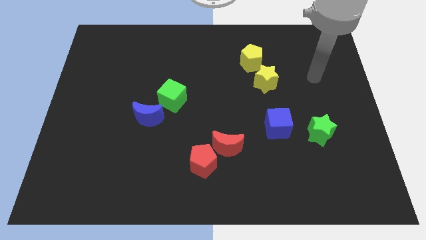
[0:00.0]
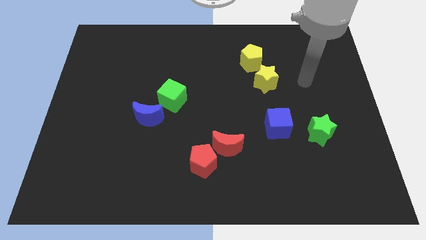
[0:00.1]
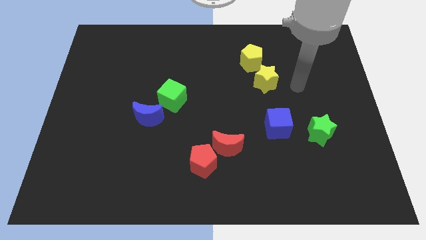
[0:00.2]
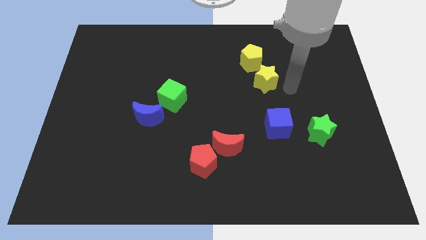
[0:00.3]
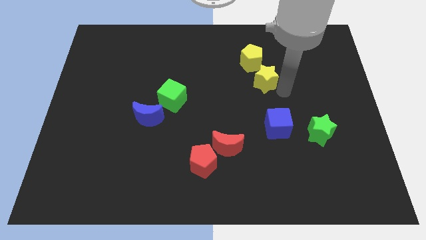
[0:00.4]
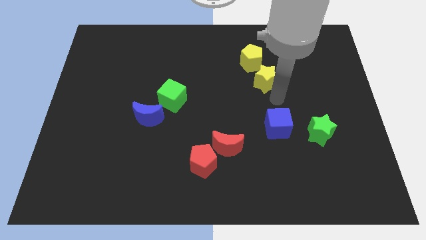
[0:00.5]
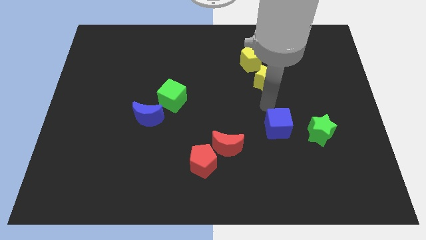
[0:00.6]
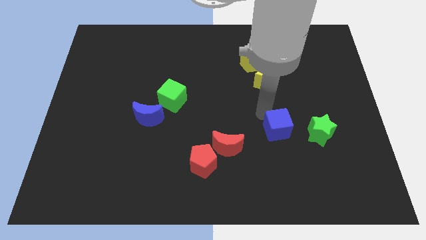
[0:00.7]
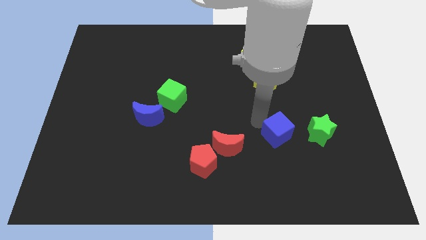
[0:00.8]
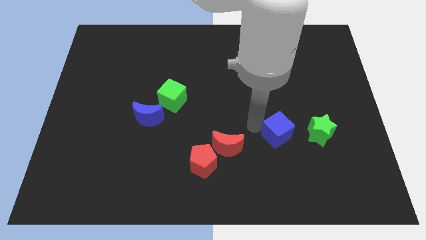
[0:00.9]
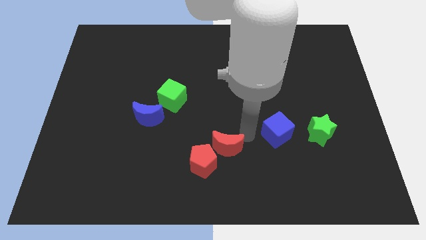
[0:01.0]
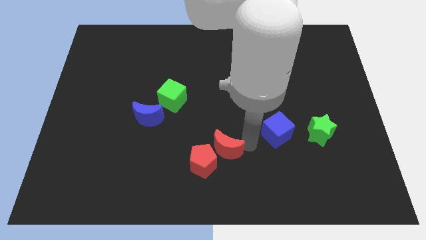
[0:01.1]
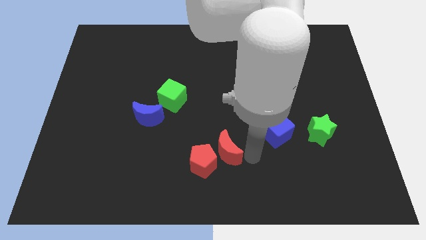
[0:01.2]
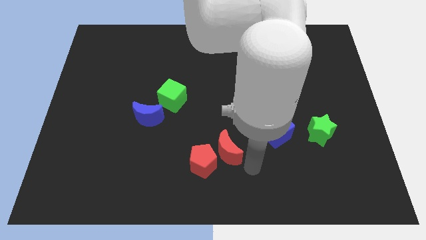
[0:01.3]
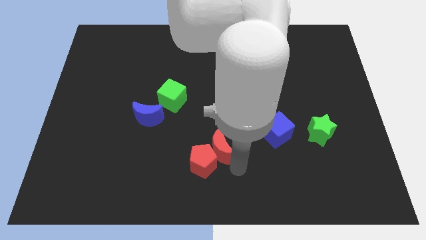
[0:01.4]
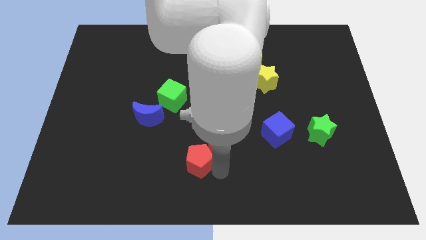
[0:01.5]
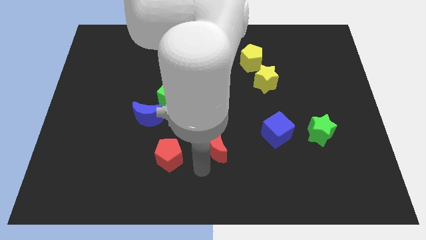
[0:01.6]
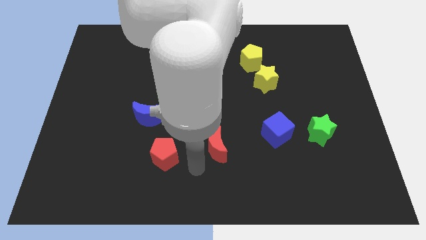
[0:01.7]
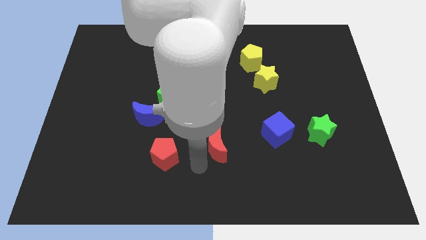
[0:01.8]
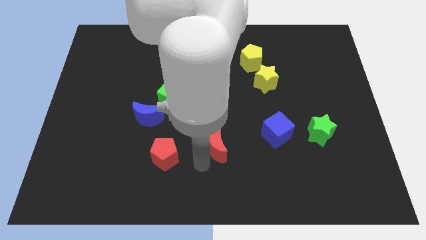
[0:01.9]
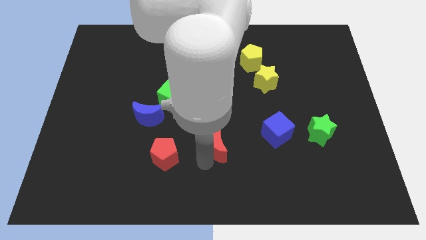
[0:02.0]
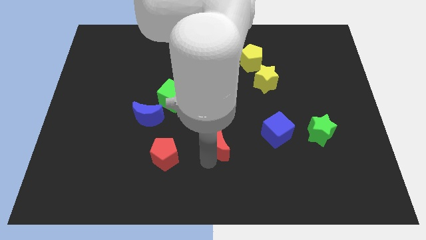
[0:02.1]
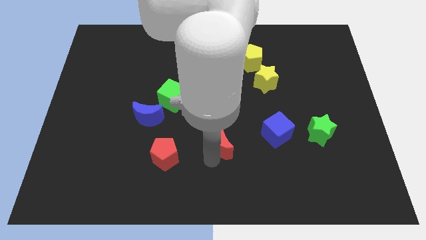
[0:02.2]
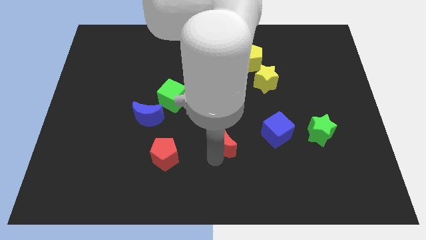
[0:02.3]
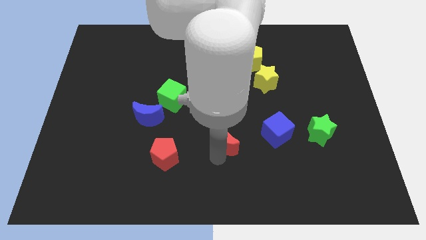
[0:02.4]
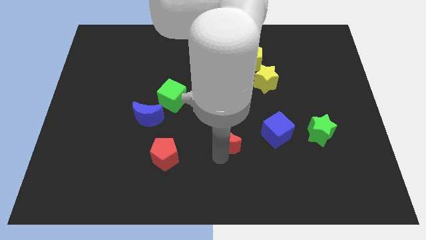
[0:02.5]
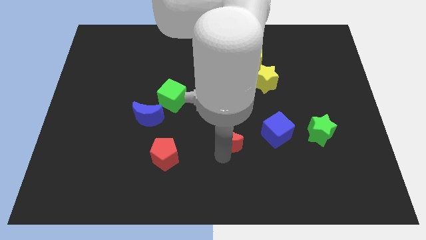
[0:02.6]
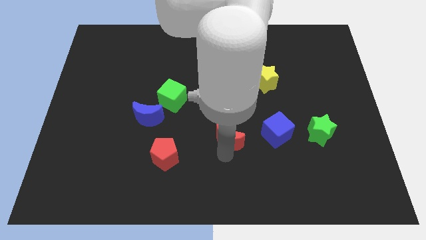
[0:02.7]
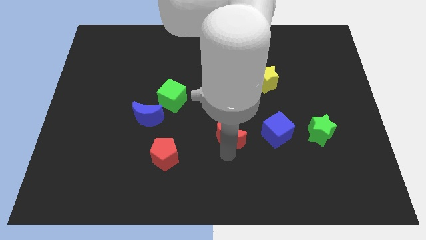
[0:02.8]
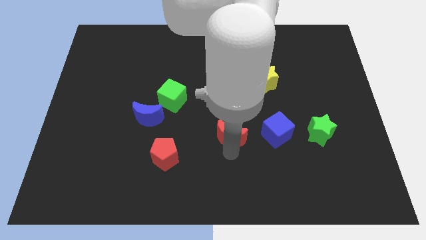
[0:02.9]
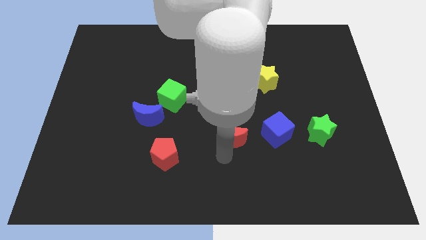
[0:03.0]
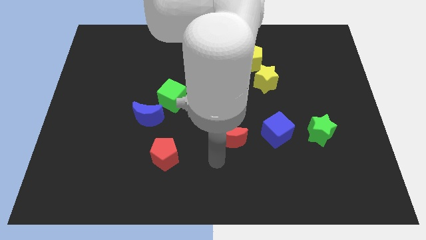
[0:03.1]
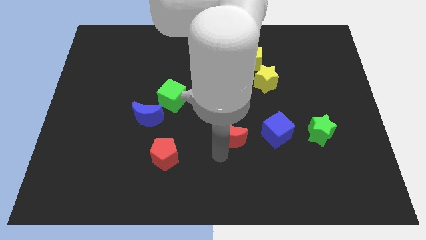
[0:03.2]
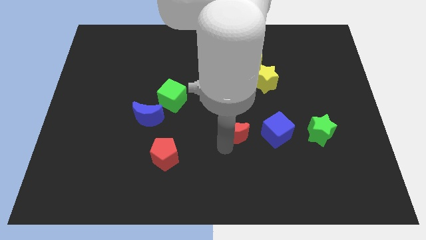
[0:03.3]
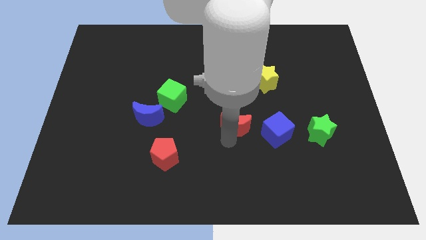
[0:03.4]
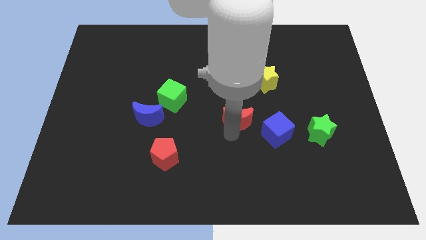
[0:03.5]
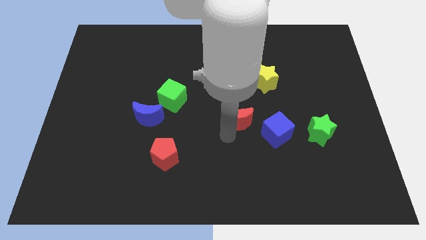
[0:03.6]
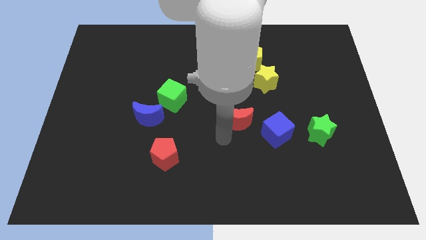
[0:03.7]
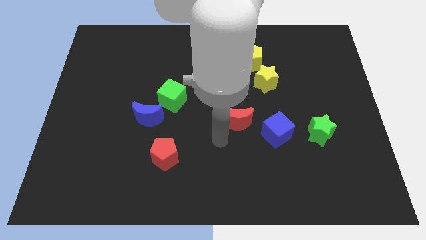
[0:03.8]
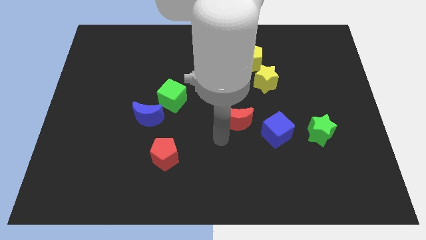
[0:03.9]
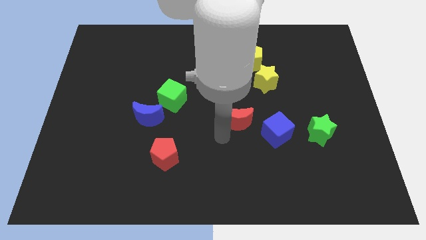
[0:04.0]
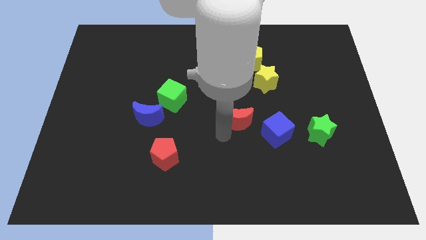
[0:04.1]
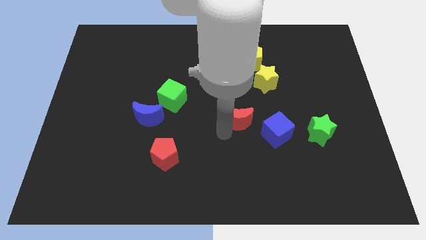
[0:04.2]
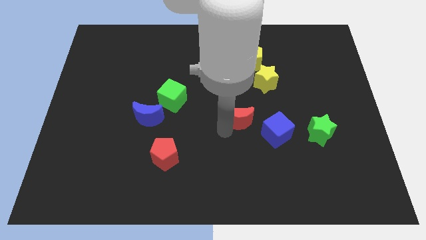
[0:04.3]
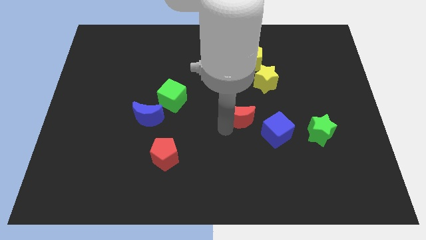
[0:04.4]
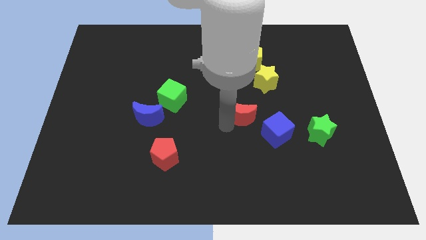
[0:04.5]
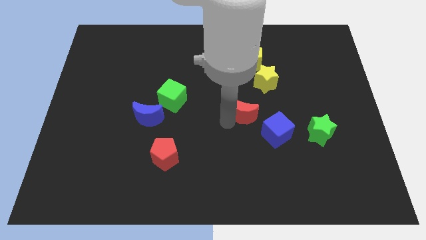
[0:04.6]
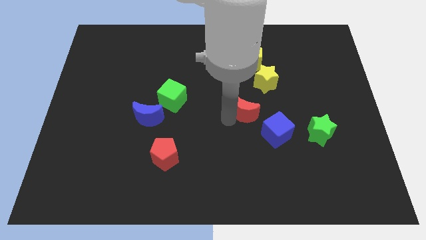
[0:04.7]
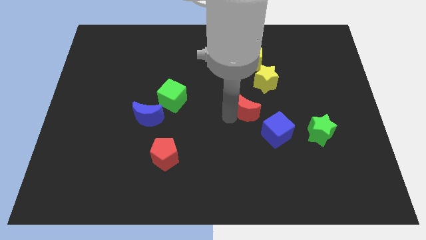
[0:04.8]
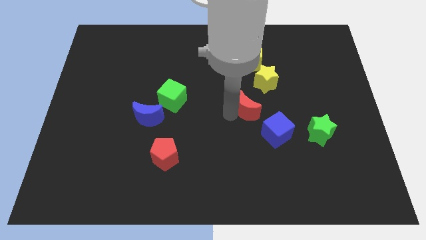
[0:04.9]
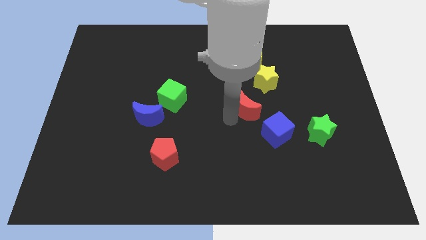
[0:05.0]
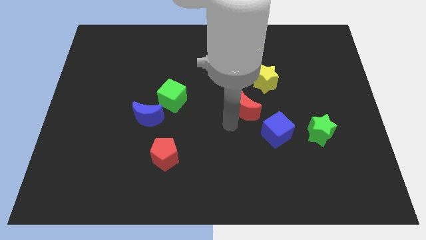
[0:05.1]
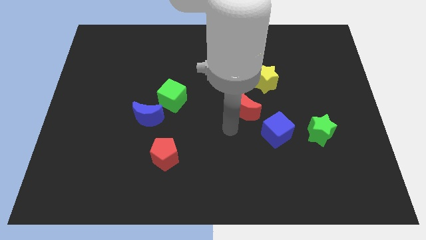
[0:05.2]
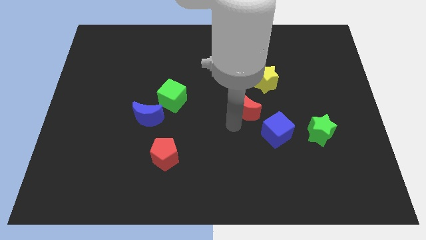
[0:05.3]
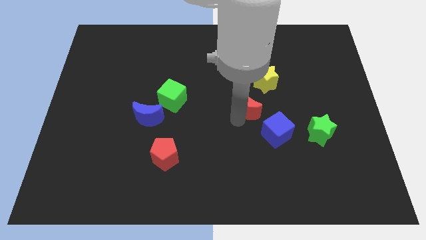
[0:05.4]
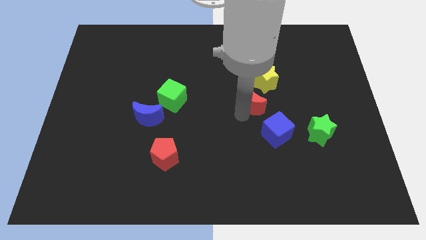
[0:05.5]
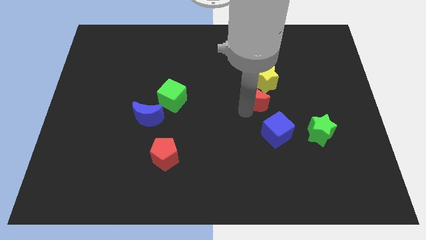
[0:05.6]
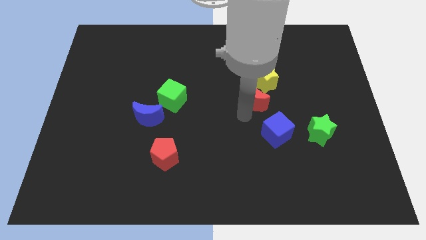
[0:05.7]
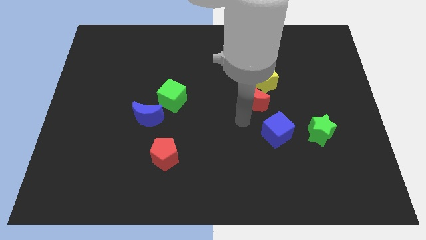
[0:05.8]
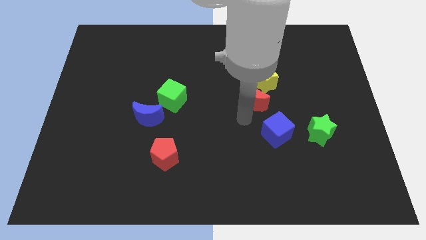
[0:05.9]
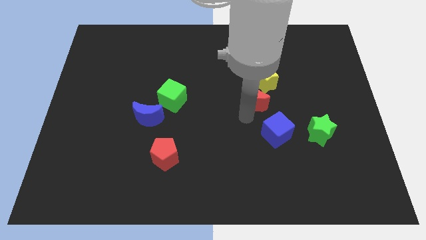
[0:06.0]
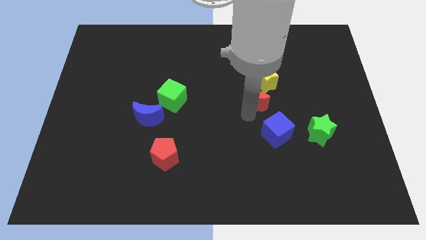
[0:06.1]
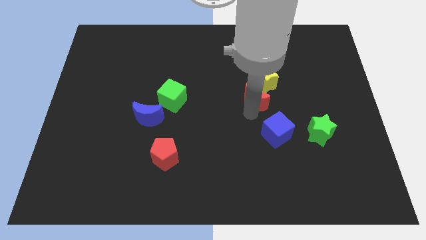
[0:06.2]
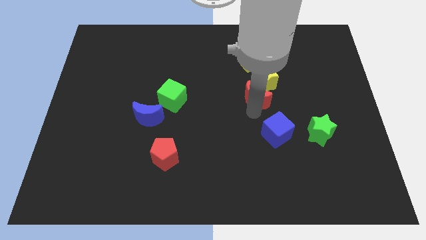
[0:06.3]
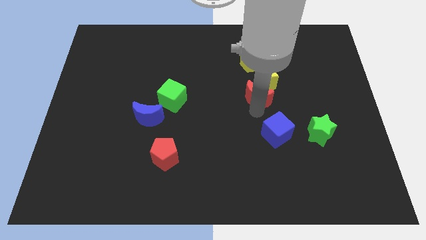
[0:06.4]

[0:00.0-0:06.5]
push the red moon next to the yellow star

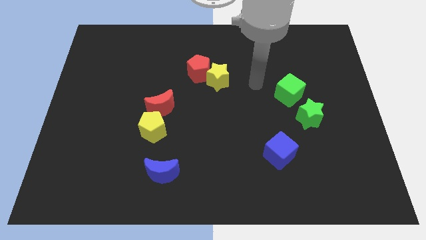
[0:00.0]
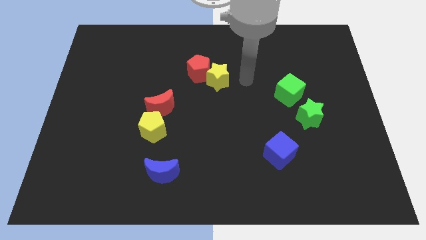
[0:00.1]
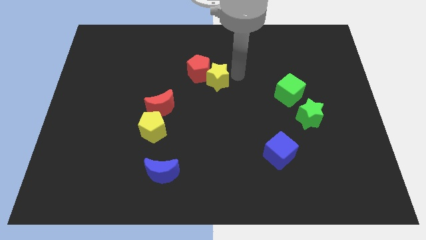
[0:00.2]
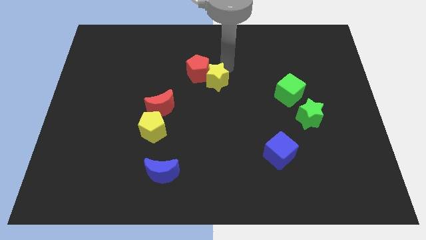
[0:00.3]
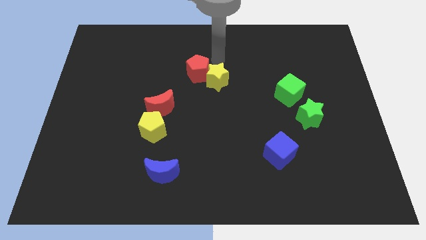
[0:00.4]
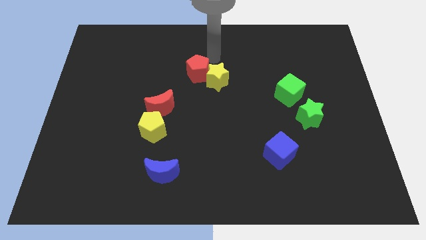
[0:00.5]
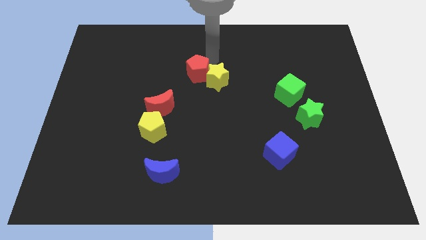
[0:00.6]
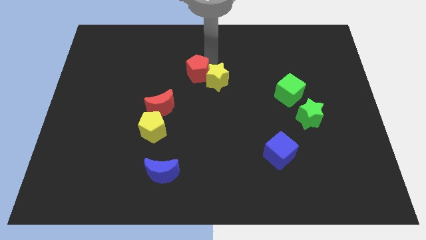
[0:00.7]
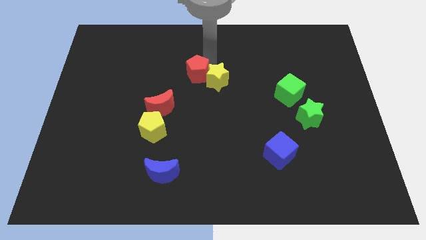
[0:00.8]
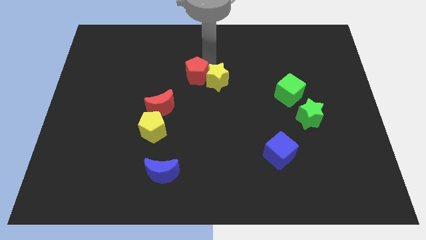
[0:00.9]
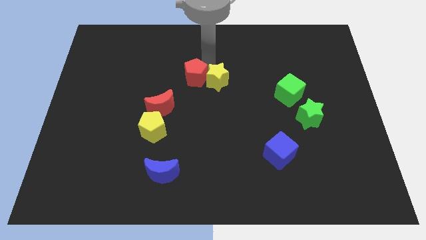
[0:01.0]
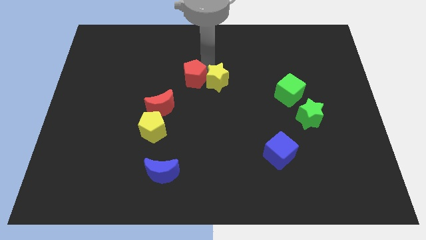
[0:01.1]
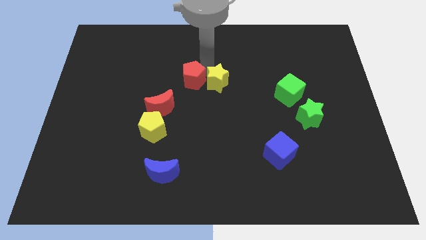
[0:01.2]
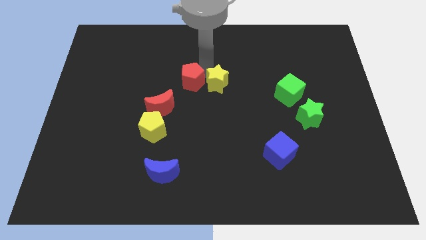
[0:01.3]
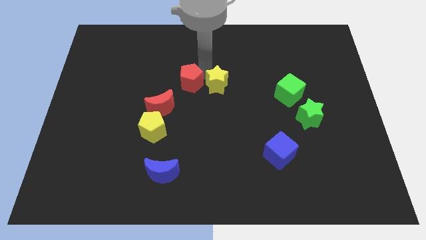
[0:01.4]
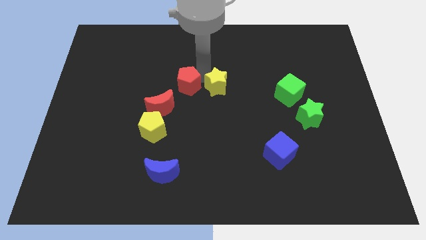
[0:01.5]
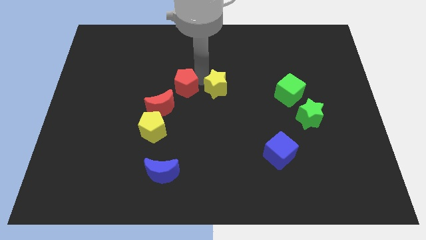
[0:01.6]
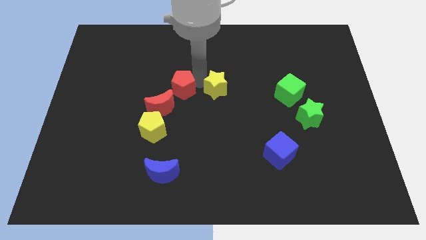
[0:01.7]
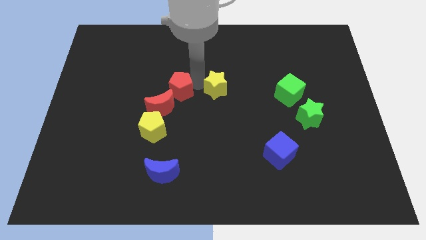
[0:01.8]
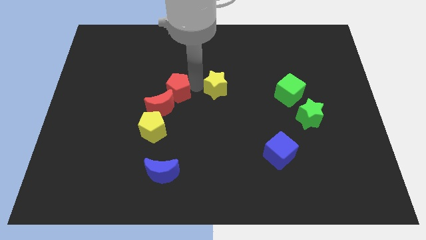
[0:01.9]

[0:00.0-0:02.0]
push the red pentagon close to the red moon
